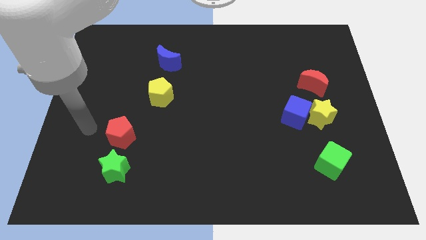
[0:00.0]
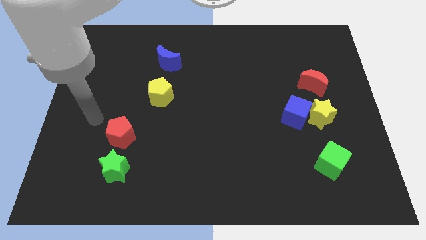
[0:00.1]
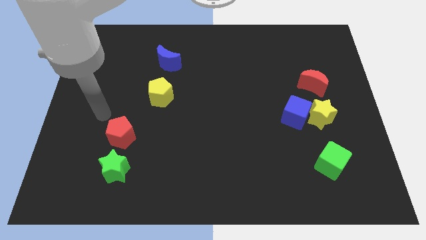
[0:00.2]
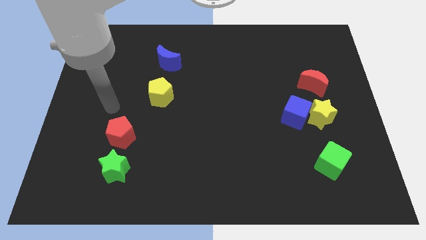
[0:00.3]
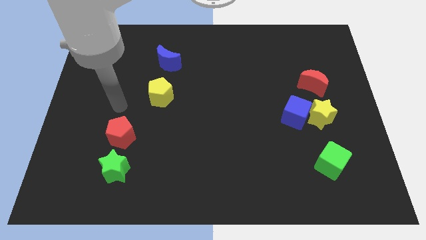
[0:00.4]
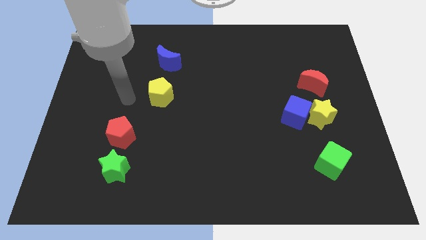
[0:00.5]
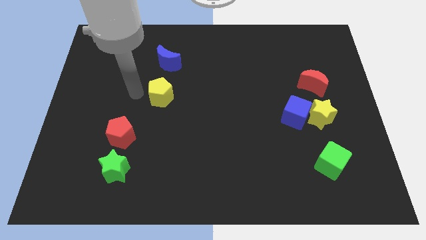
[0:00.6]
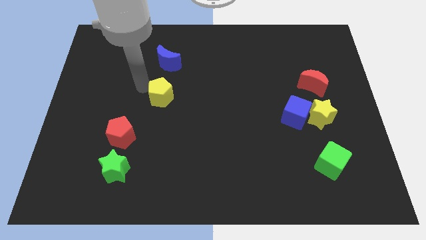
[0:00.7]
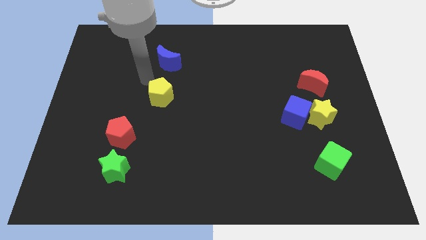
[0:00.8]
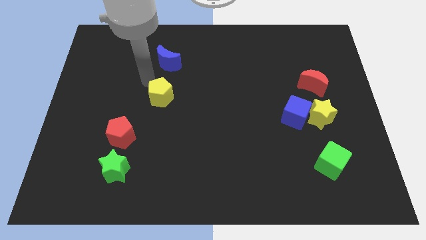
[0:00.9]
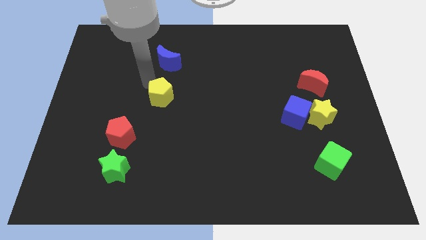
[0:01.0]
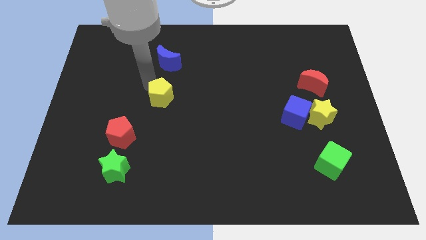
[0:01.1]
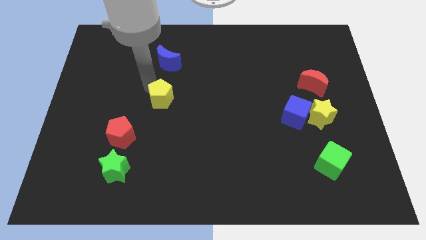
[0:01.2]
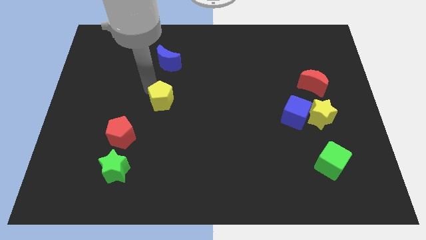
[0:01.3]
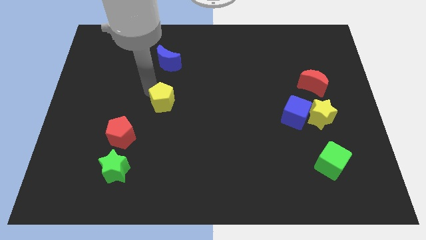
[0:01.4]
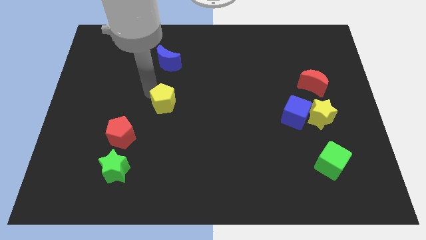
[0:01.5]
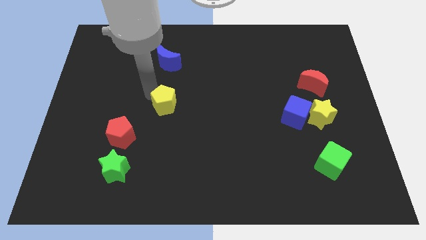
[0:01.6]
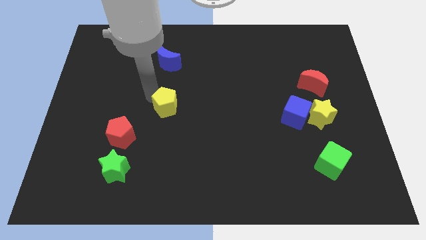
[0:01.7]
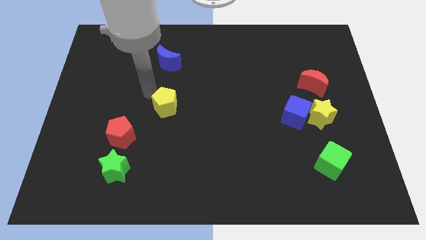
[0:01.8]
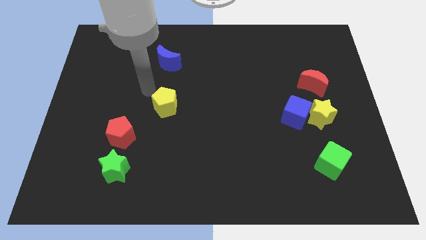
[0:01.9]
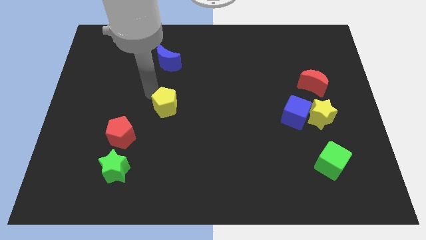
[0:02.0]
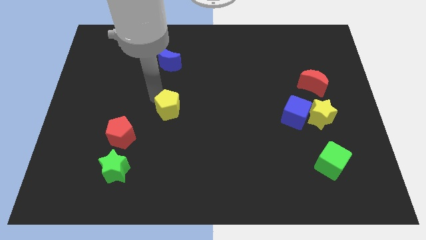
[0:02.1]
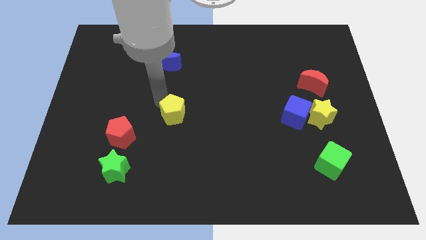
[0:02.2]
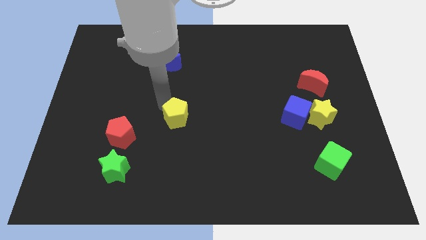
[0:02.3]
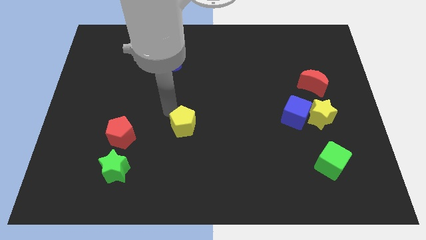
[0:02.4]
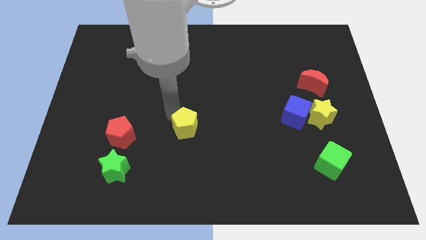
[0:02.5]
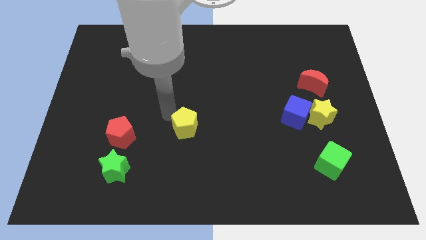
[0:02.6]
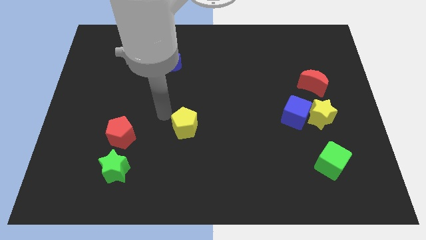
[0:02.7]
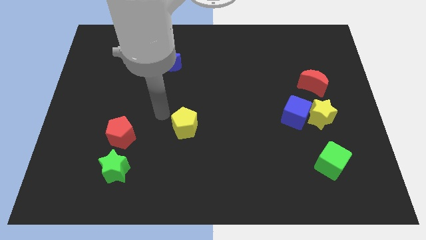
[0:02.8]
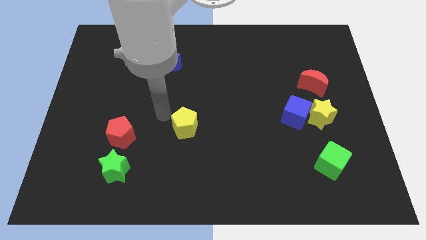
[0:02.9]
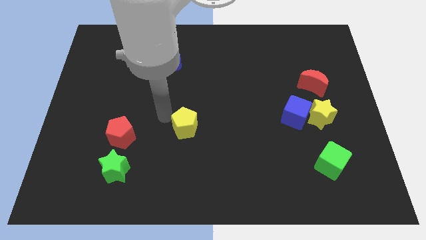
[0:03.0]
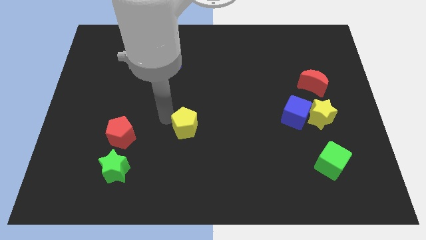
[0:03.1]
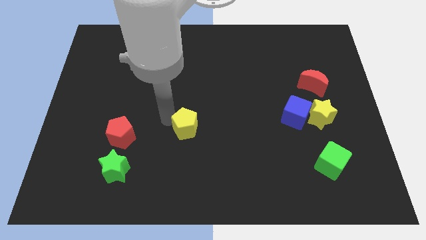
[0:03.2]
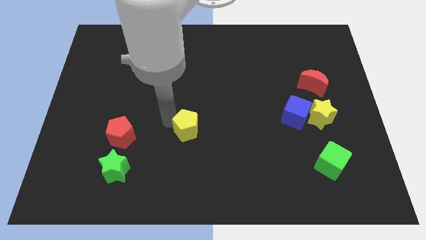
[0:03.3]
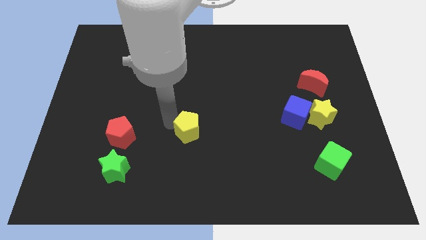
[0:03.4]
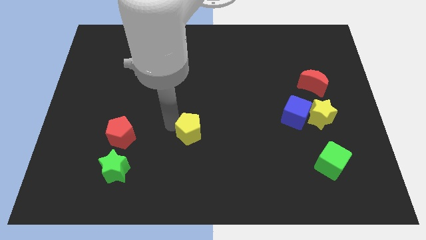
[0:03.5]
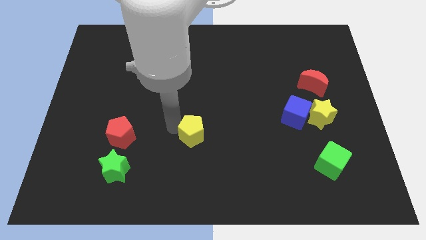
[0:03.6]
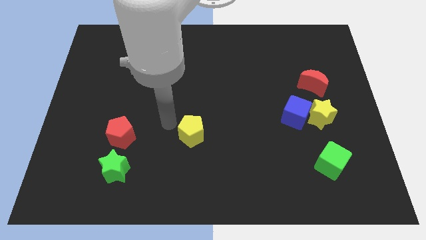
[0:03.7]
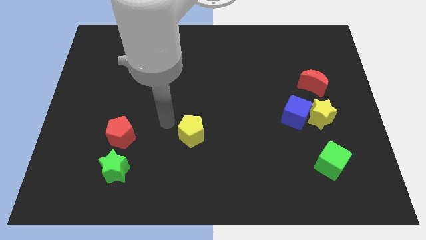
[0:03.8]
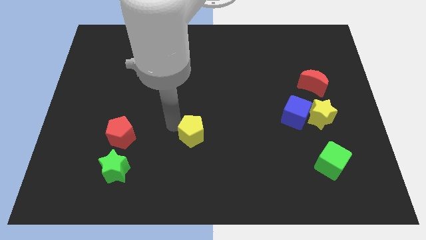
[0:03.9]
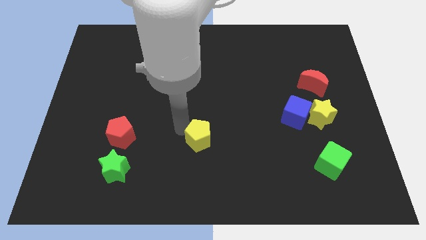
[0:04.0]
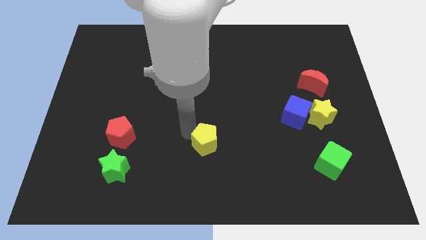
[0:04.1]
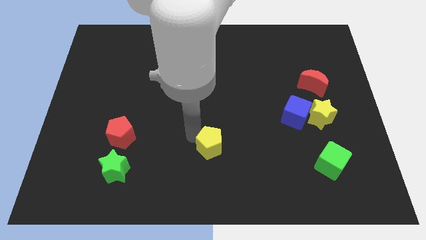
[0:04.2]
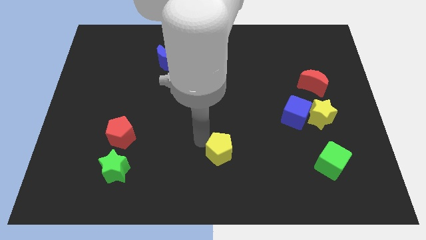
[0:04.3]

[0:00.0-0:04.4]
push the yellow pentagon down and right diagonally

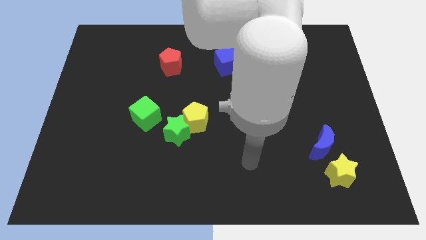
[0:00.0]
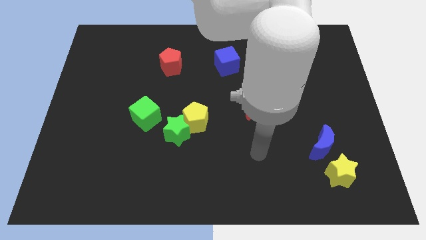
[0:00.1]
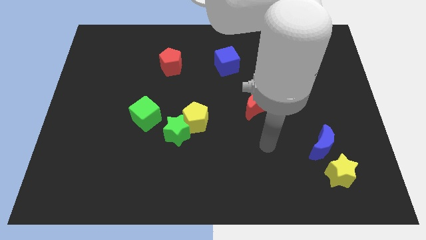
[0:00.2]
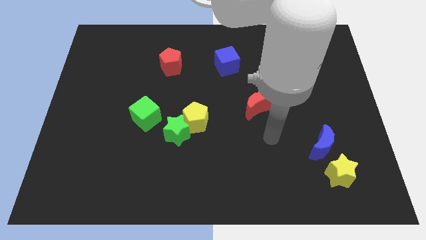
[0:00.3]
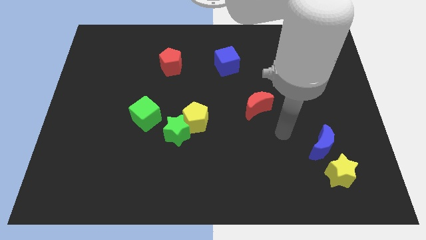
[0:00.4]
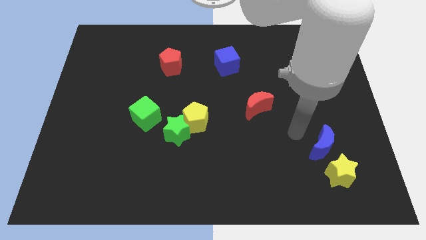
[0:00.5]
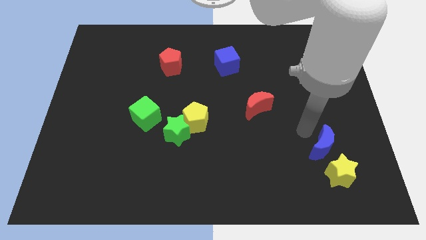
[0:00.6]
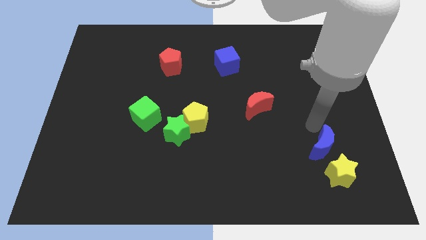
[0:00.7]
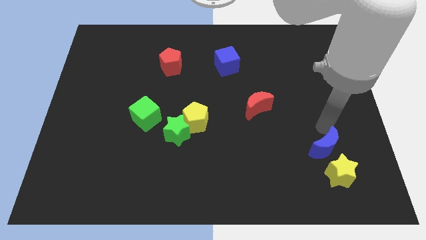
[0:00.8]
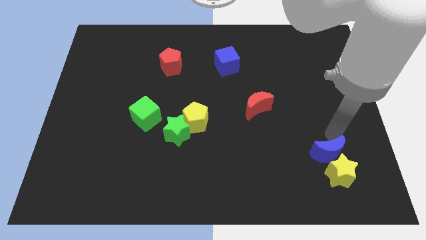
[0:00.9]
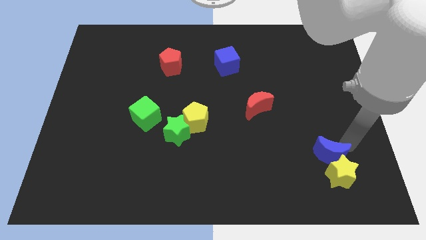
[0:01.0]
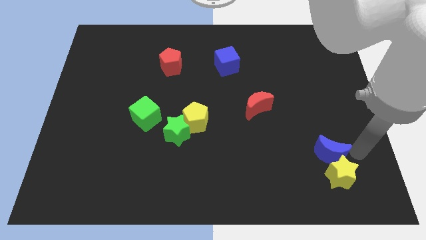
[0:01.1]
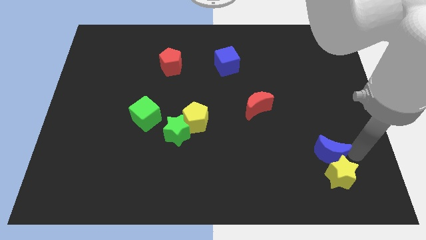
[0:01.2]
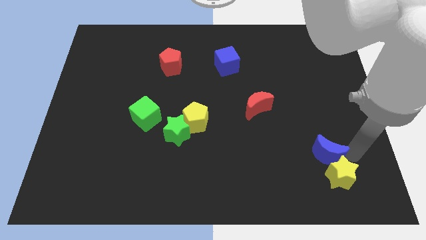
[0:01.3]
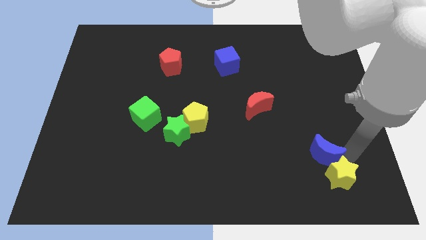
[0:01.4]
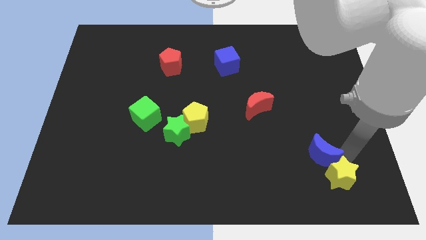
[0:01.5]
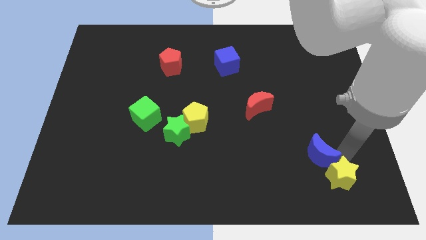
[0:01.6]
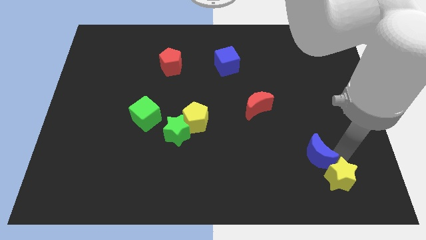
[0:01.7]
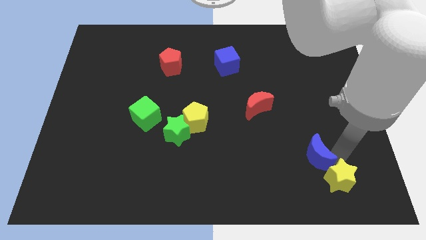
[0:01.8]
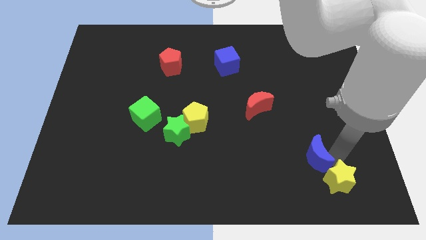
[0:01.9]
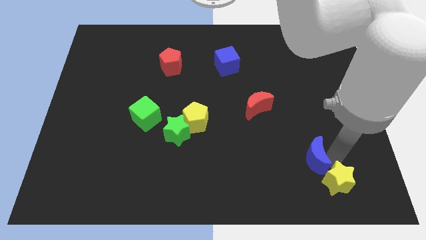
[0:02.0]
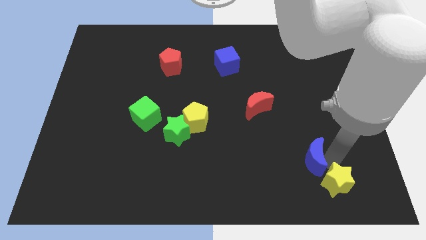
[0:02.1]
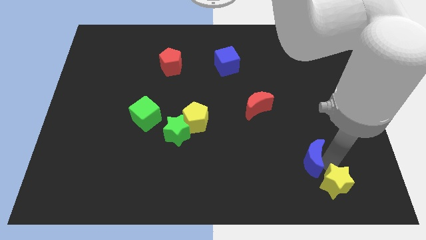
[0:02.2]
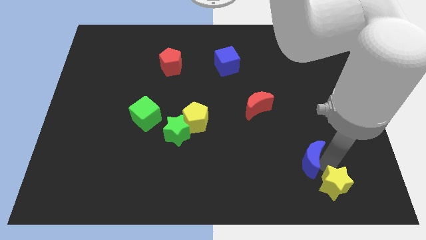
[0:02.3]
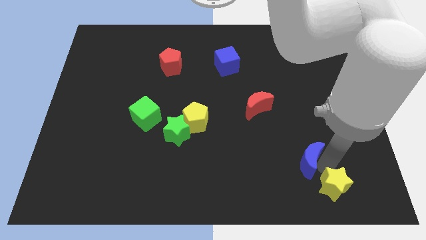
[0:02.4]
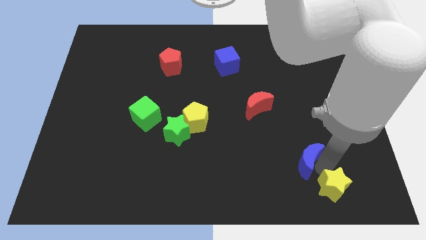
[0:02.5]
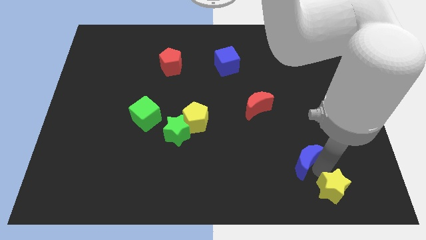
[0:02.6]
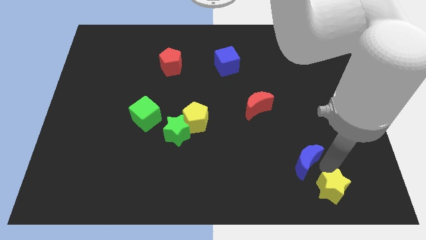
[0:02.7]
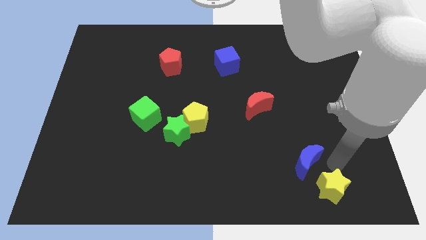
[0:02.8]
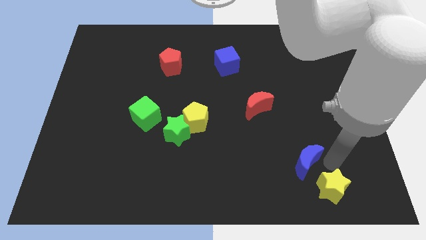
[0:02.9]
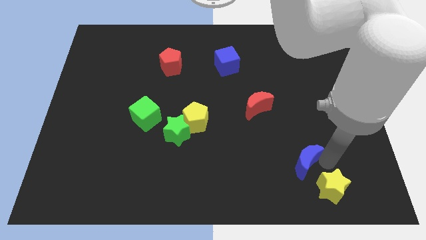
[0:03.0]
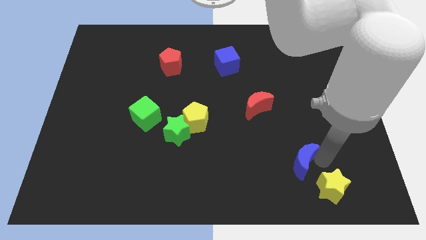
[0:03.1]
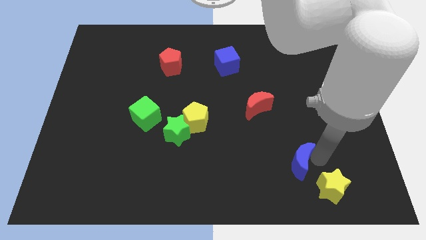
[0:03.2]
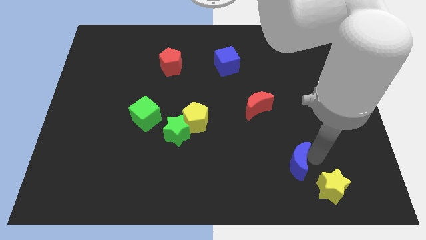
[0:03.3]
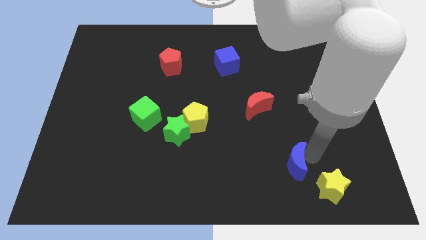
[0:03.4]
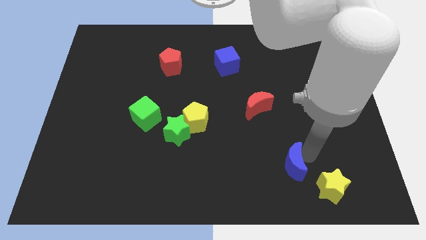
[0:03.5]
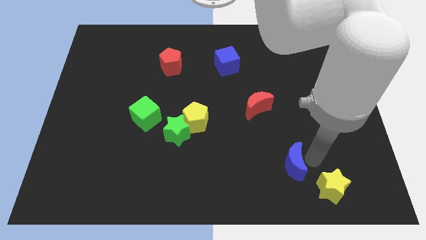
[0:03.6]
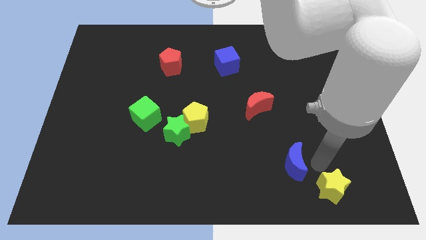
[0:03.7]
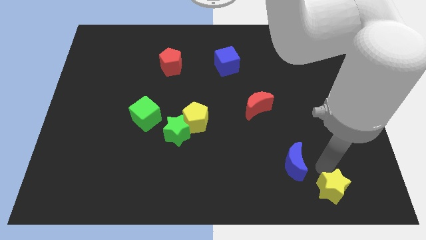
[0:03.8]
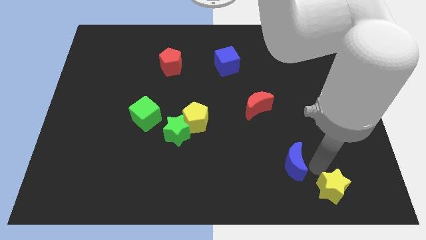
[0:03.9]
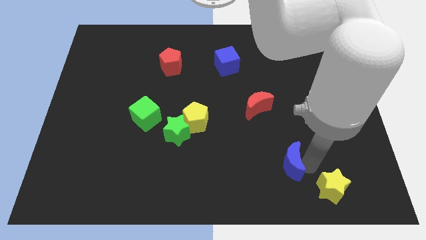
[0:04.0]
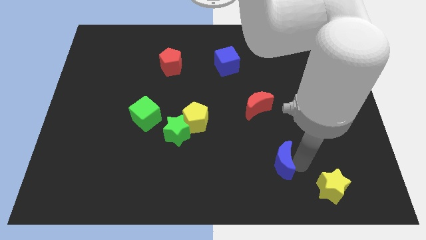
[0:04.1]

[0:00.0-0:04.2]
move the blue moon a bit left
